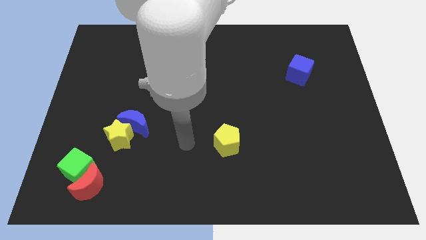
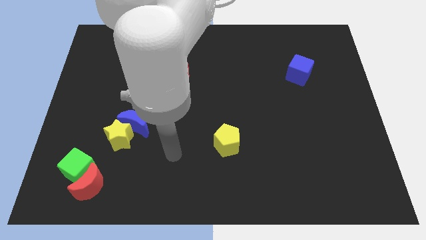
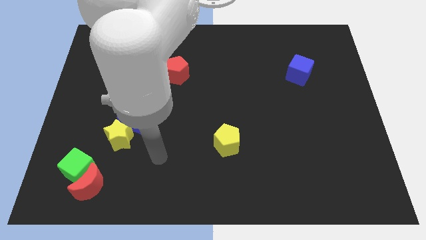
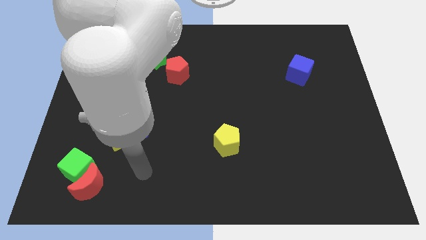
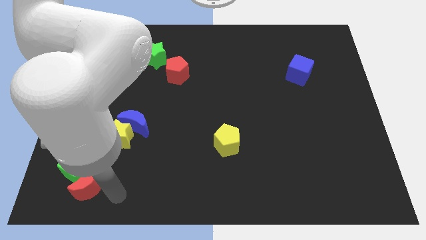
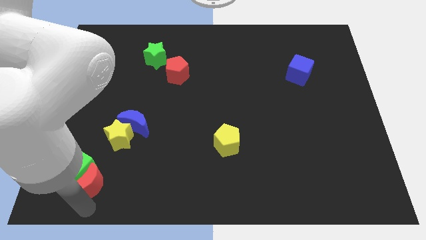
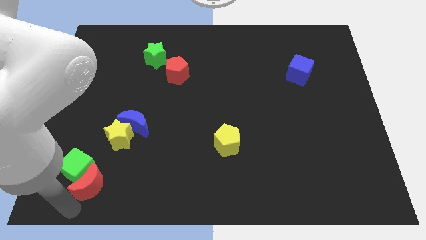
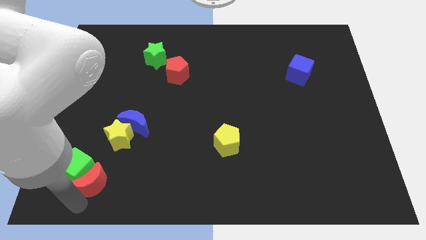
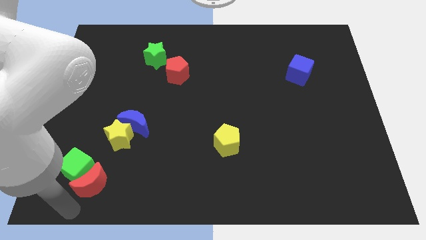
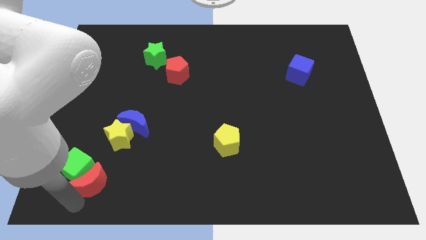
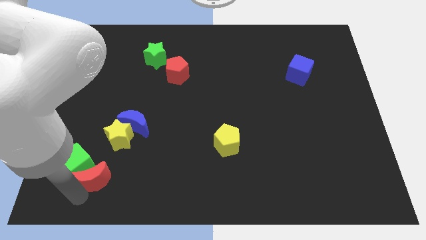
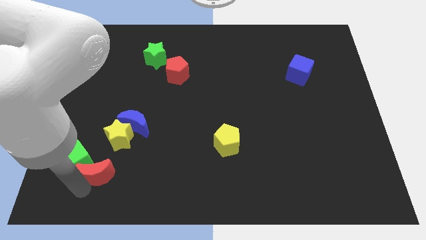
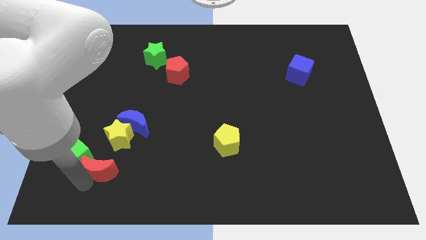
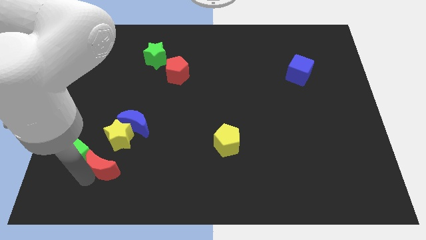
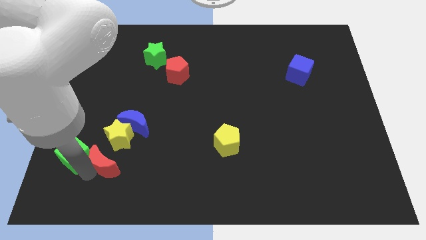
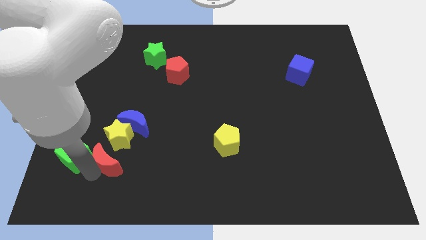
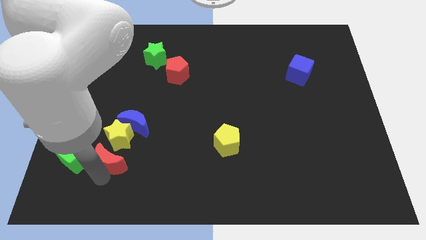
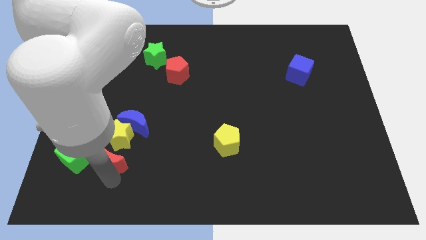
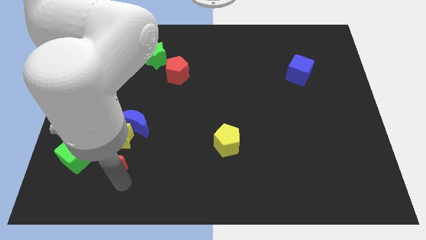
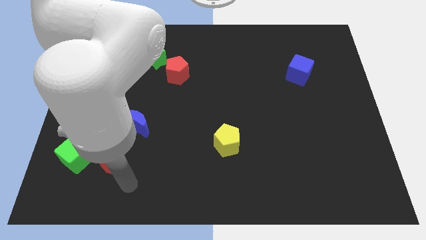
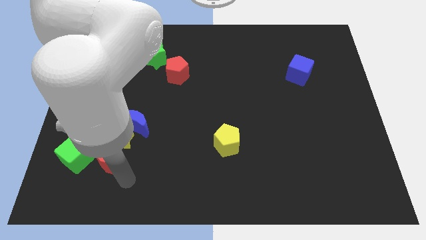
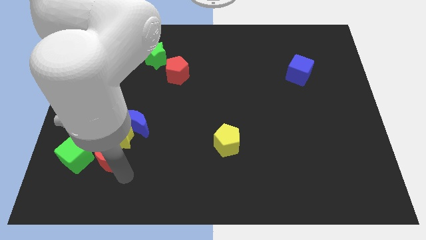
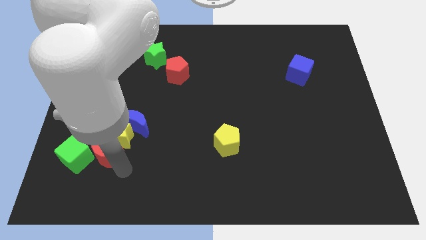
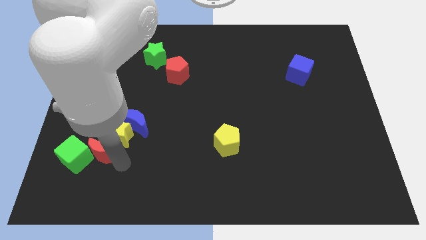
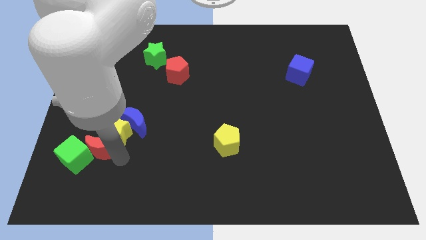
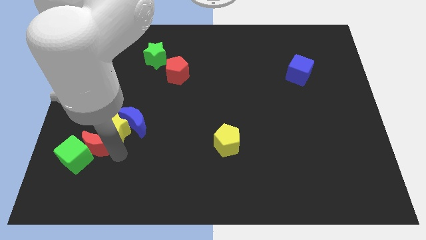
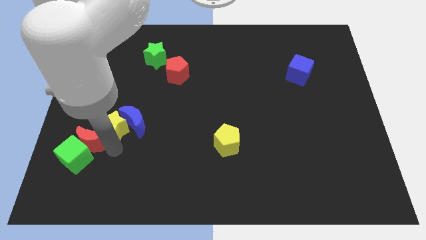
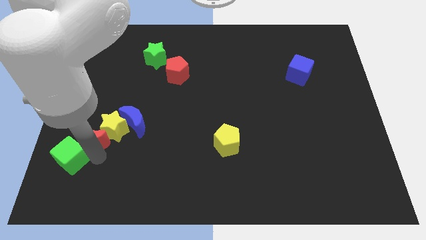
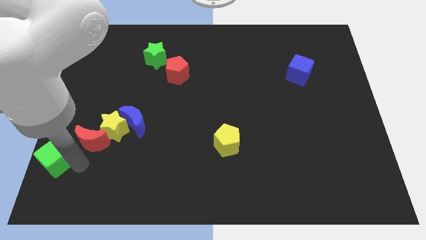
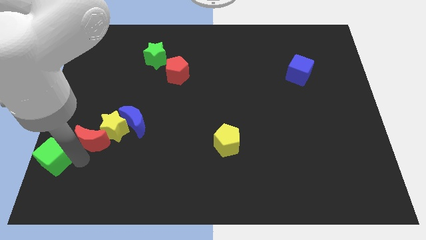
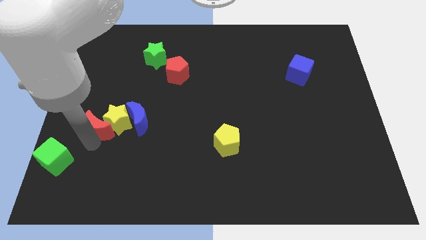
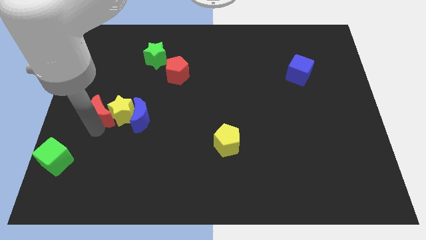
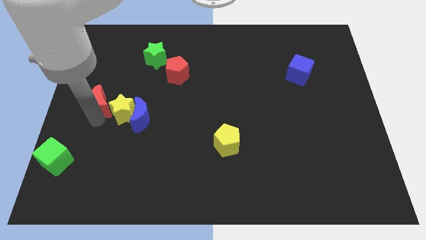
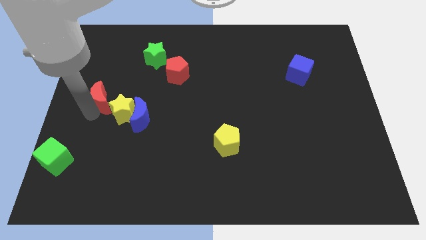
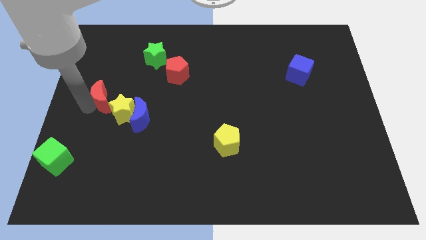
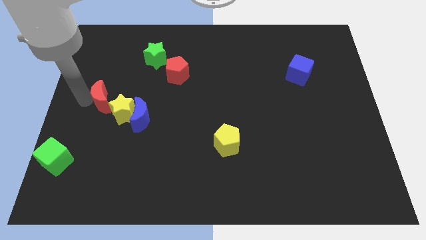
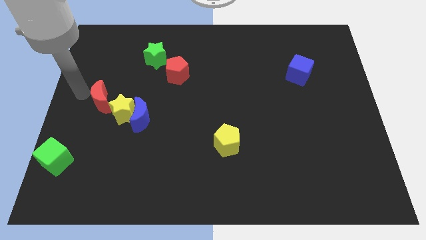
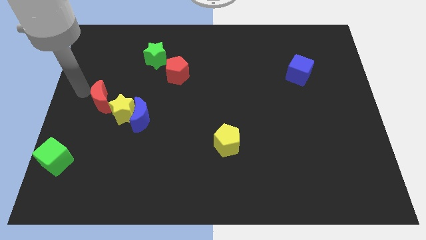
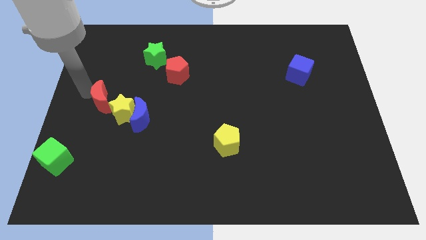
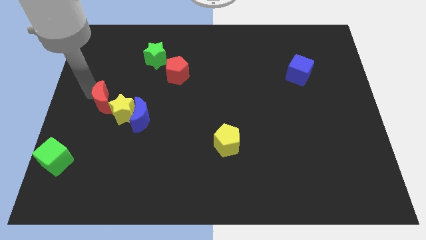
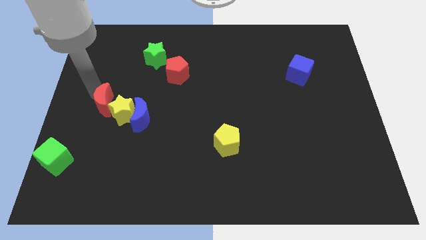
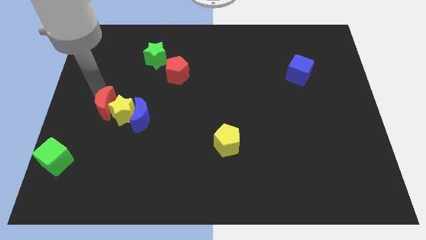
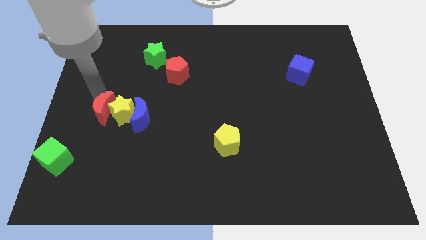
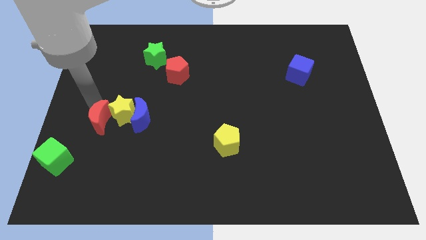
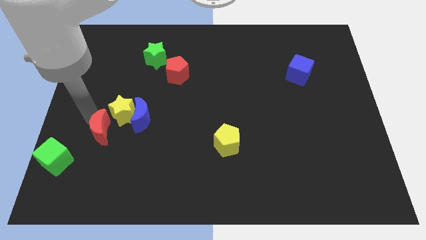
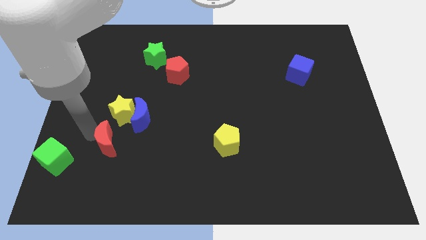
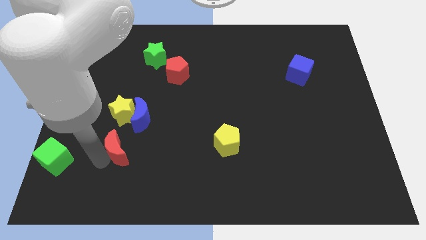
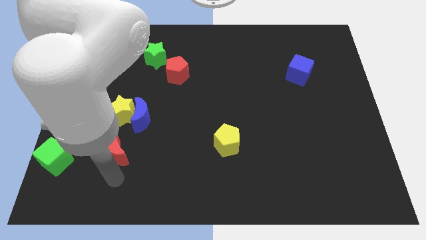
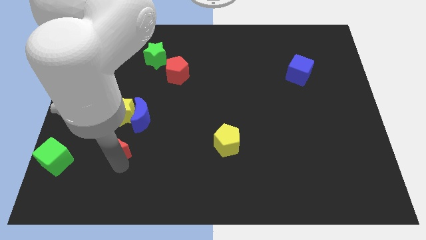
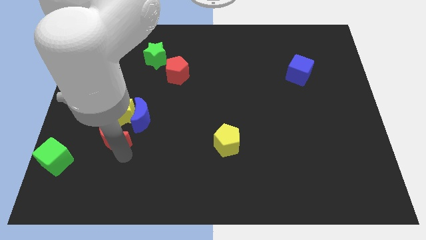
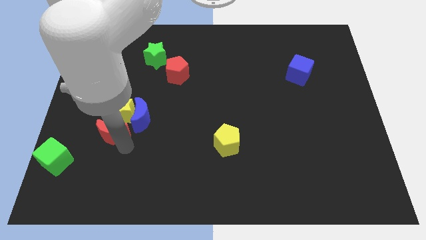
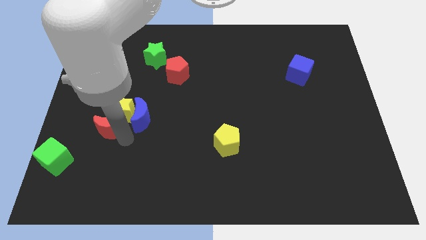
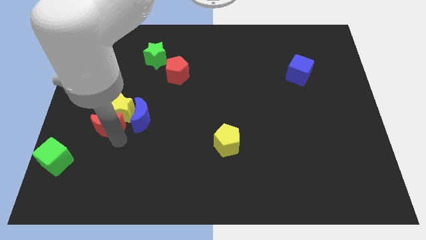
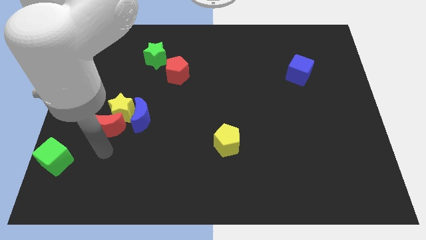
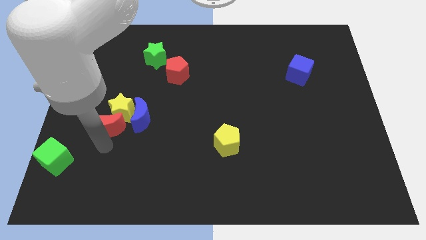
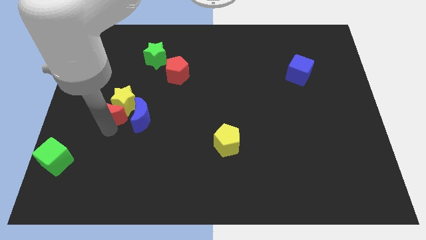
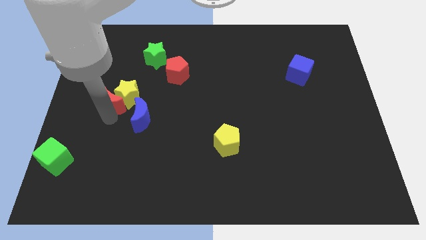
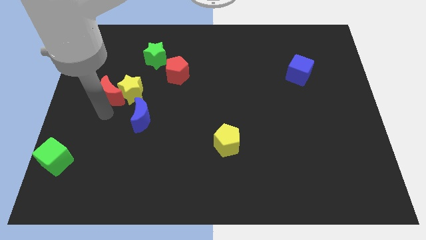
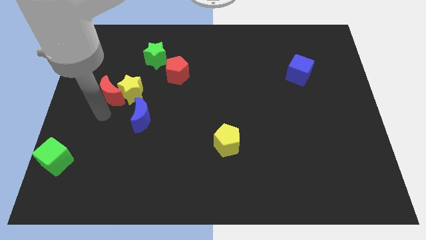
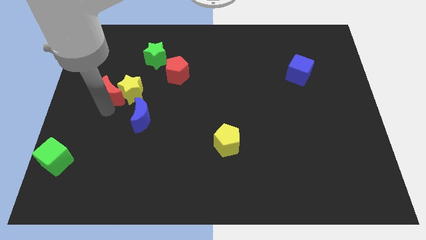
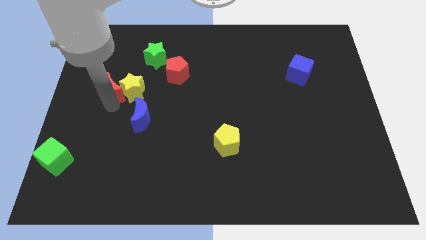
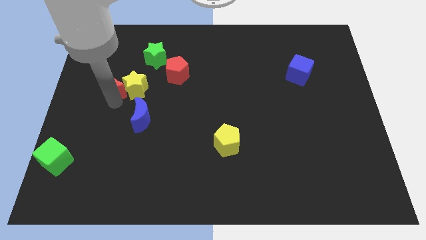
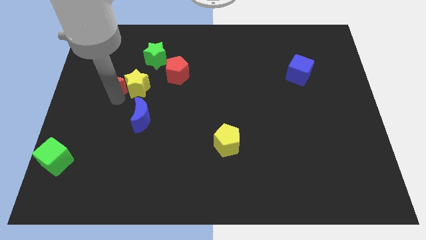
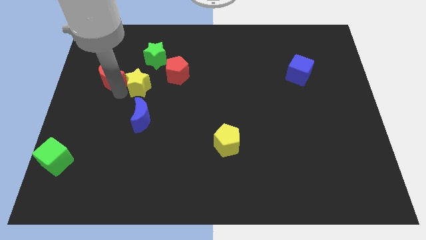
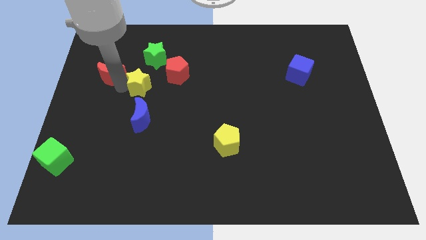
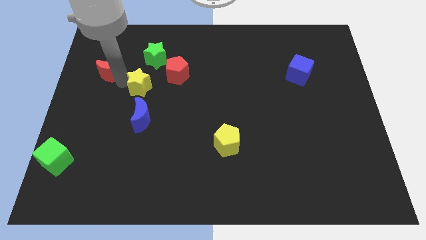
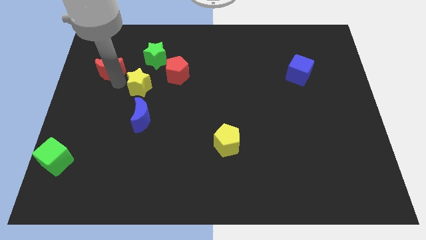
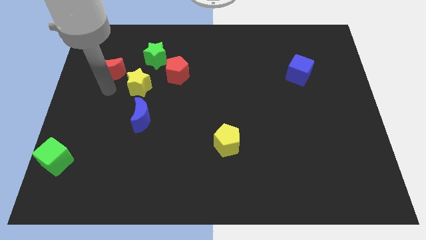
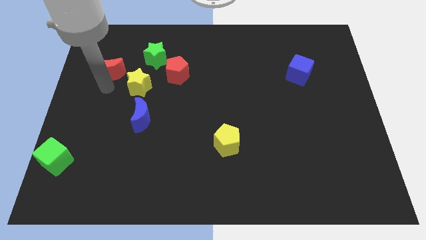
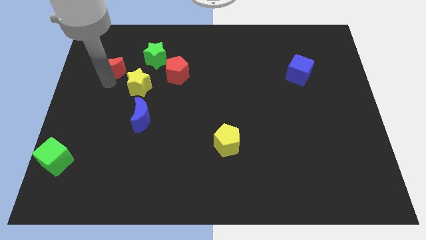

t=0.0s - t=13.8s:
push the red moon to the left side of the green star

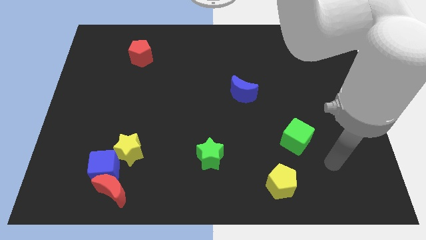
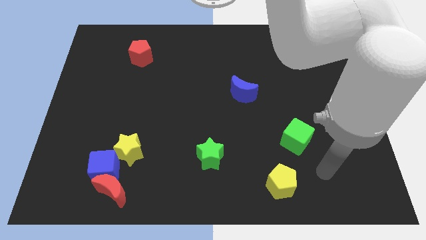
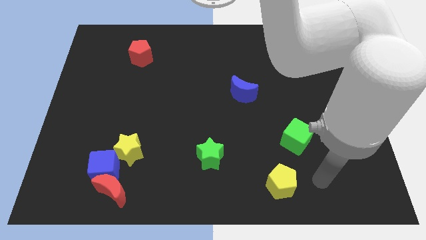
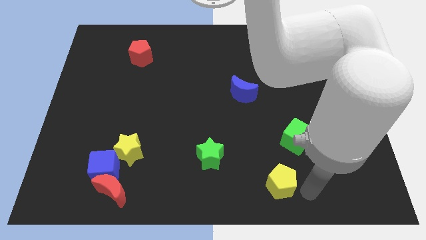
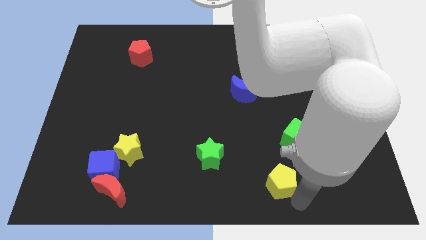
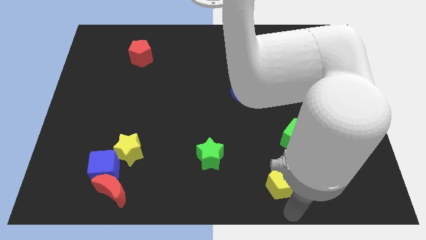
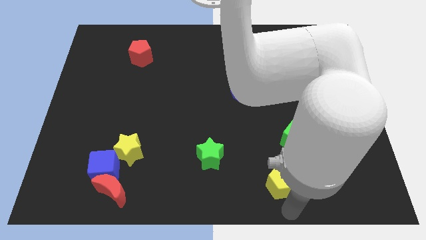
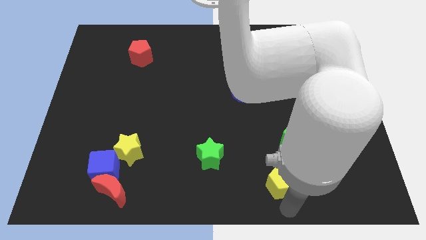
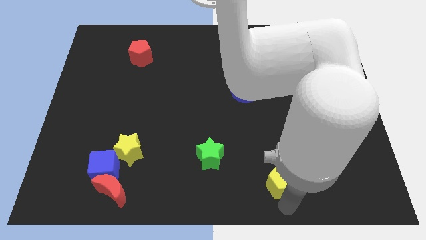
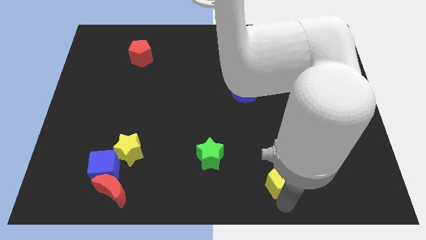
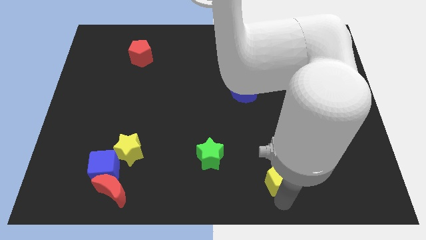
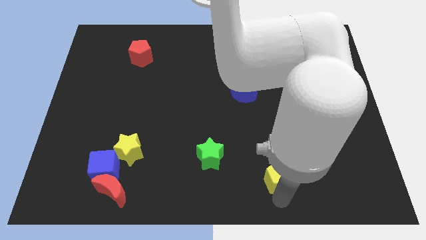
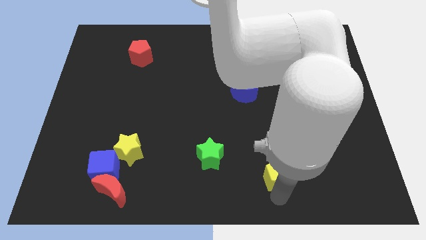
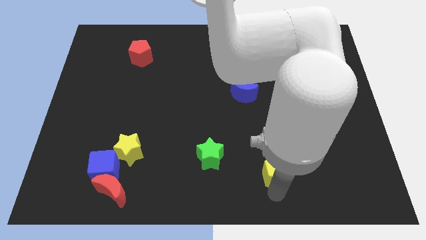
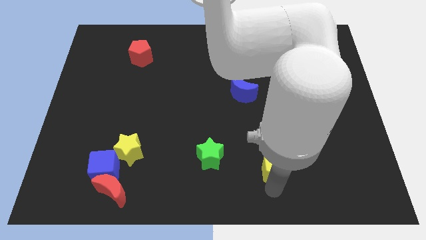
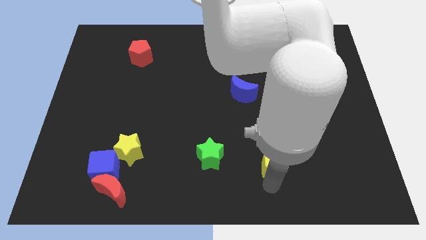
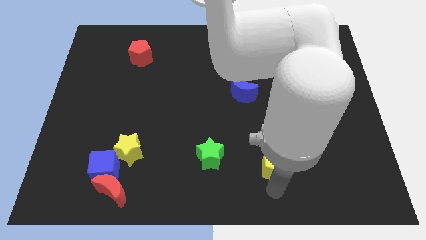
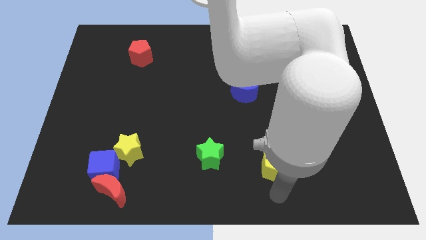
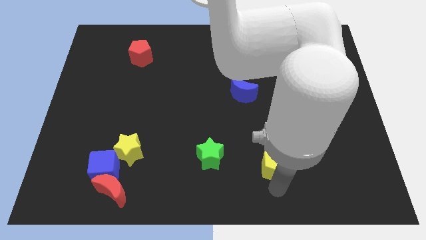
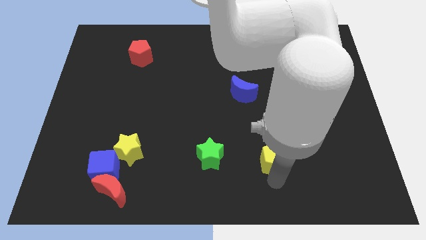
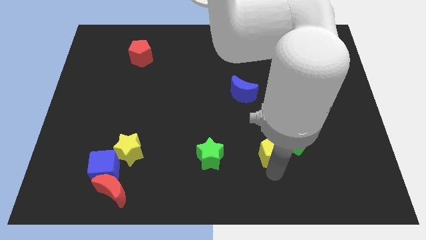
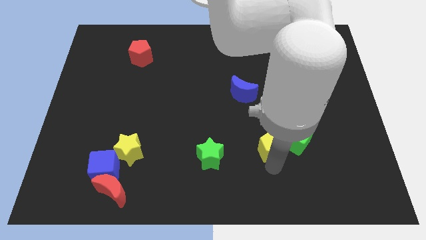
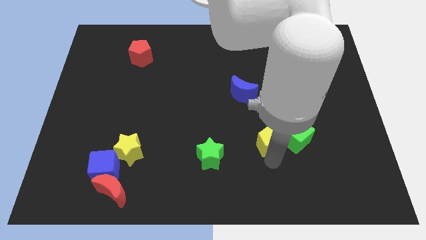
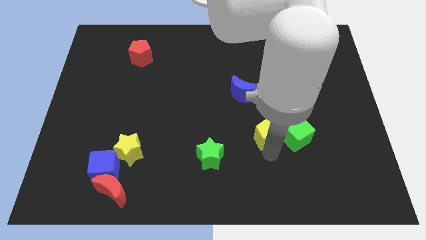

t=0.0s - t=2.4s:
put the yellow pentagon diagonally up and to the left of the green cube
